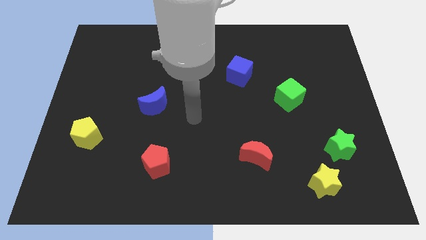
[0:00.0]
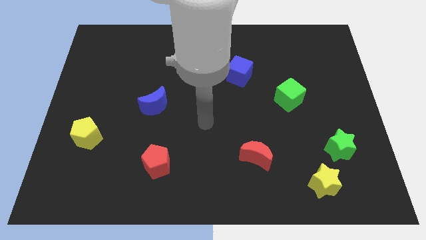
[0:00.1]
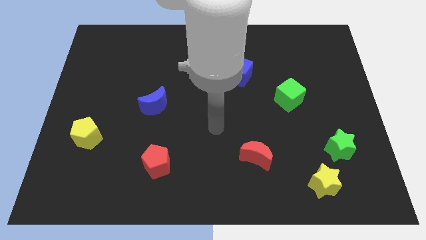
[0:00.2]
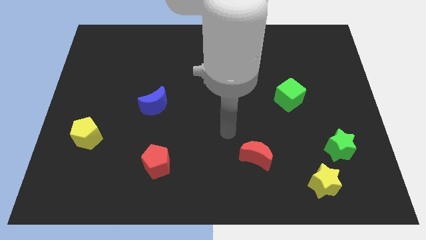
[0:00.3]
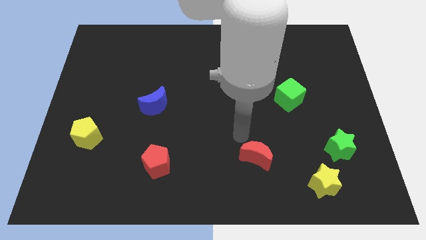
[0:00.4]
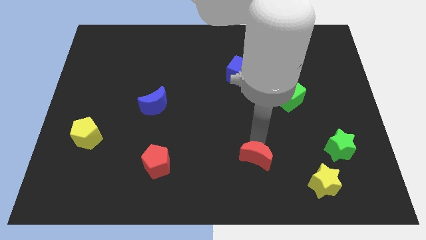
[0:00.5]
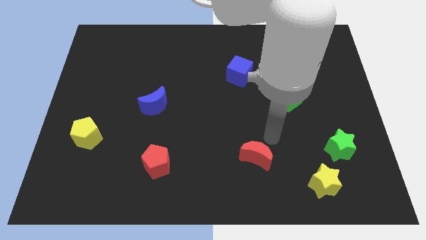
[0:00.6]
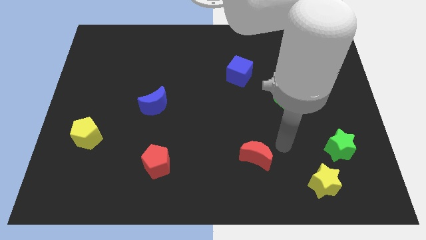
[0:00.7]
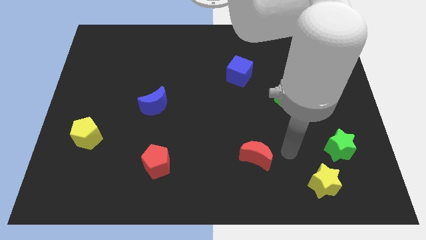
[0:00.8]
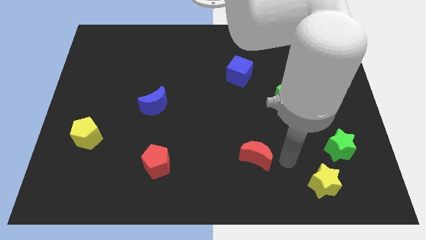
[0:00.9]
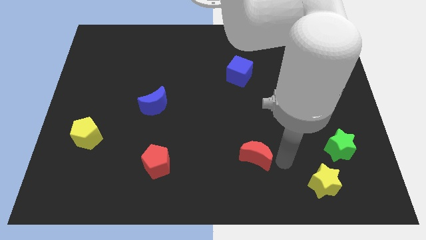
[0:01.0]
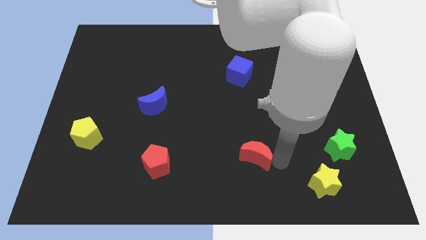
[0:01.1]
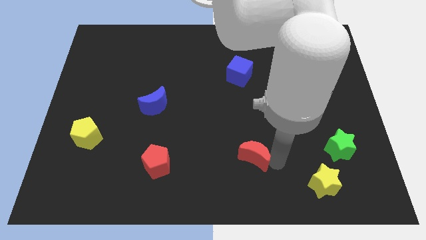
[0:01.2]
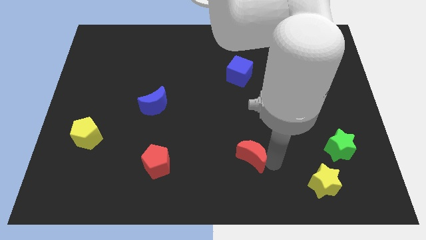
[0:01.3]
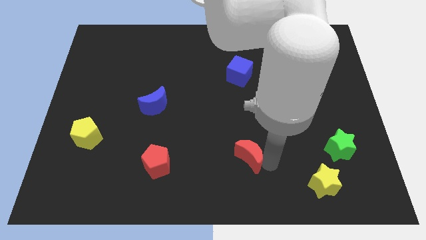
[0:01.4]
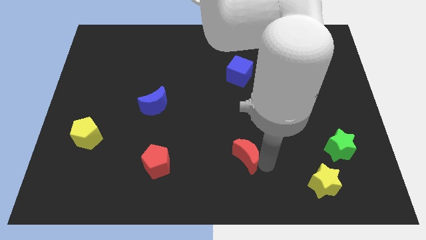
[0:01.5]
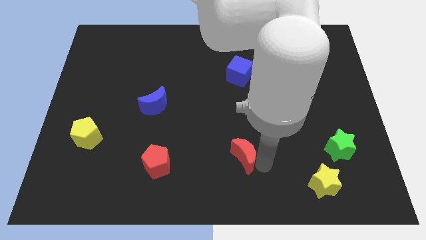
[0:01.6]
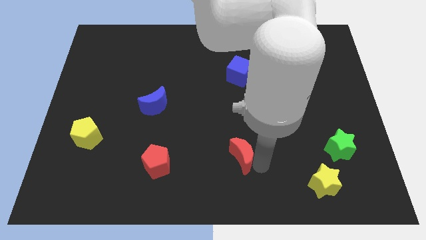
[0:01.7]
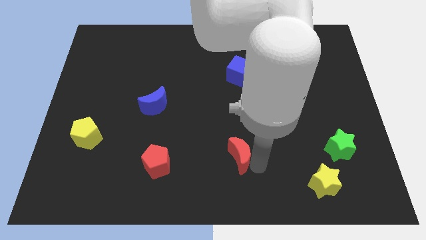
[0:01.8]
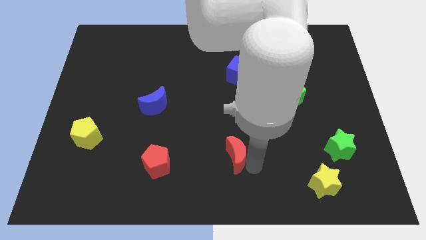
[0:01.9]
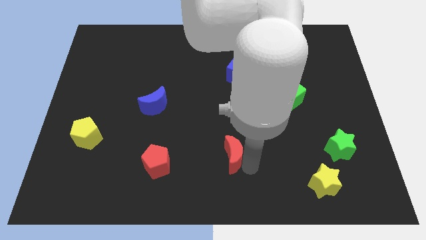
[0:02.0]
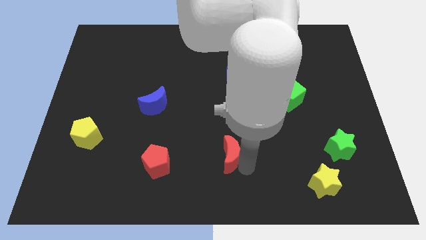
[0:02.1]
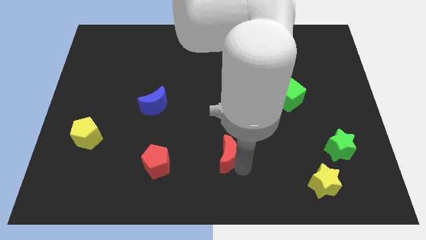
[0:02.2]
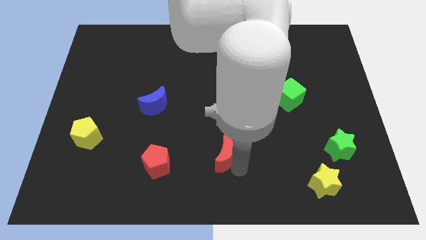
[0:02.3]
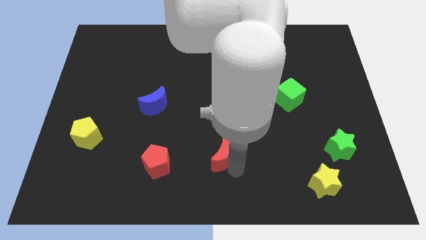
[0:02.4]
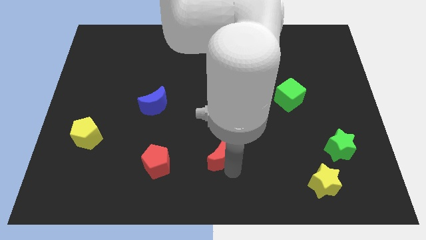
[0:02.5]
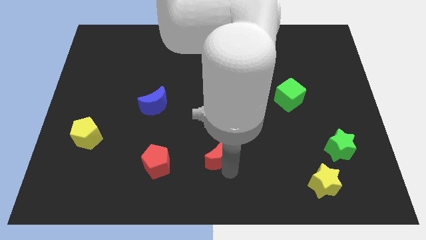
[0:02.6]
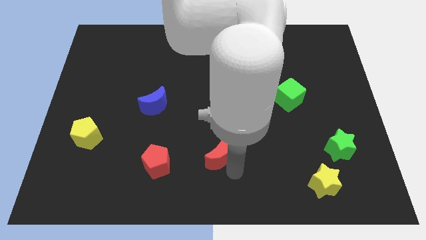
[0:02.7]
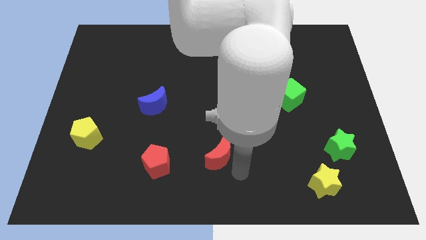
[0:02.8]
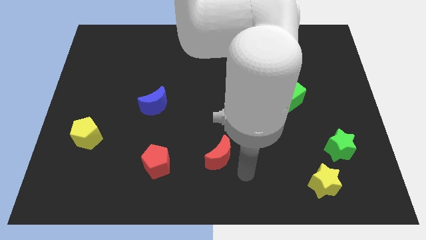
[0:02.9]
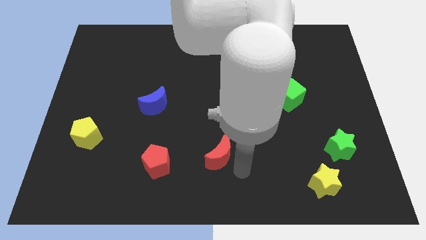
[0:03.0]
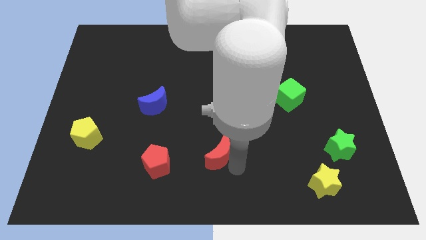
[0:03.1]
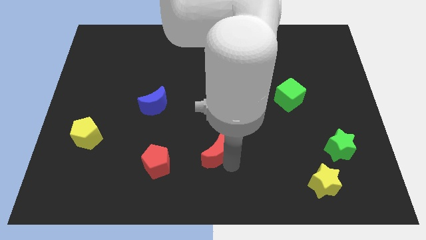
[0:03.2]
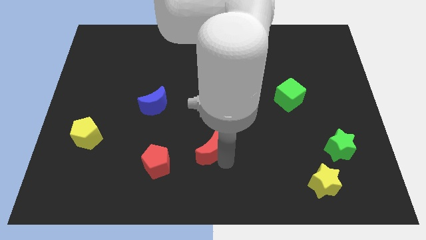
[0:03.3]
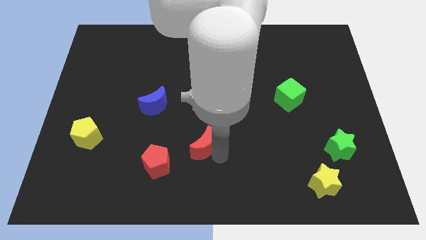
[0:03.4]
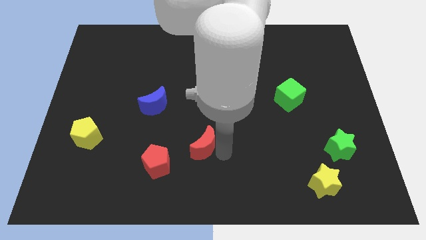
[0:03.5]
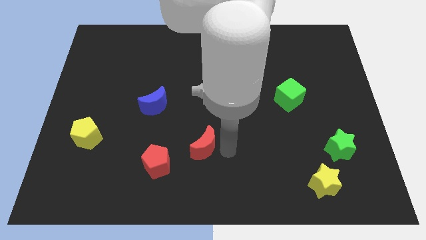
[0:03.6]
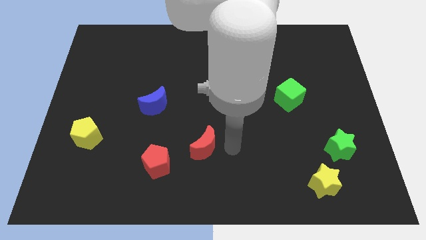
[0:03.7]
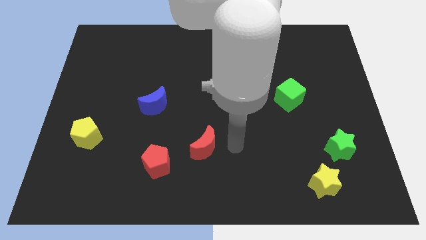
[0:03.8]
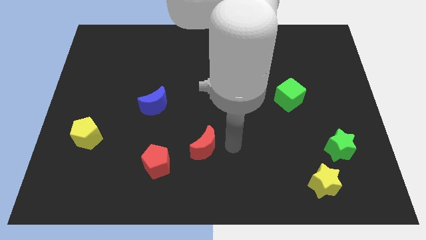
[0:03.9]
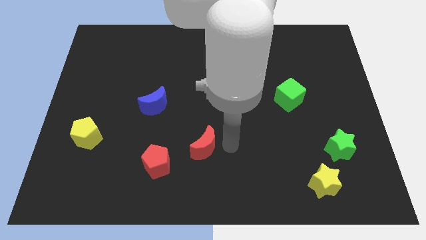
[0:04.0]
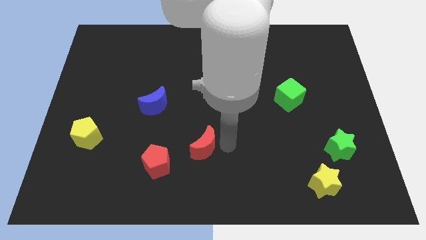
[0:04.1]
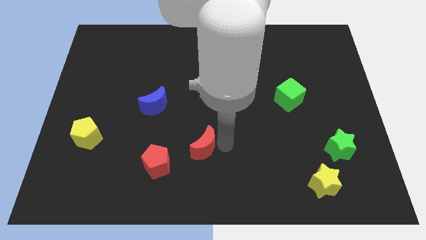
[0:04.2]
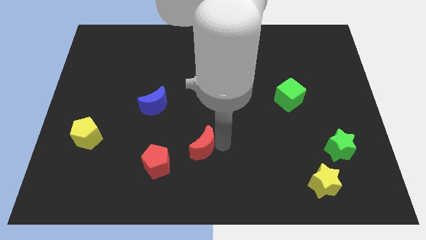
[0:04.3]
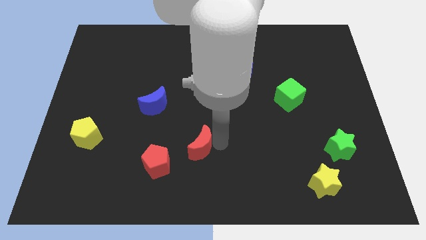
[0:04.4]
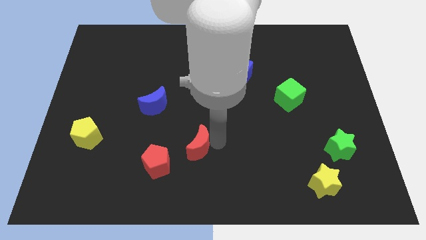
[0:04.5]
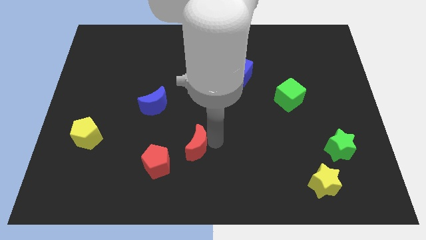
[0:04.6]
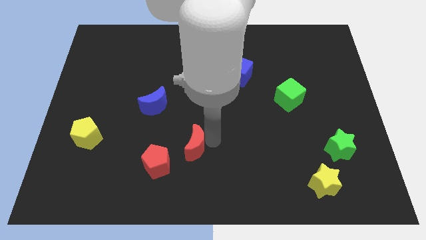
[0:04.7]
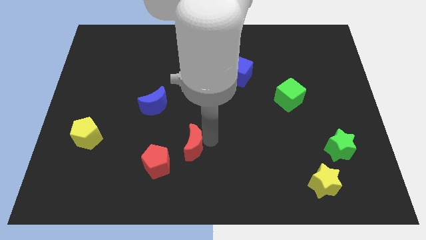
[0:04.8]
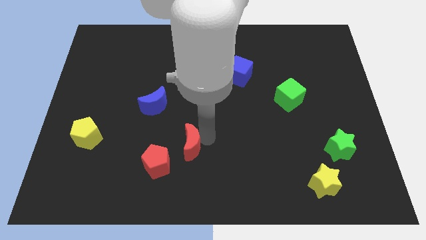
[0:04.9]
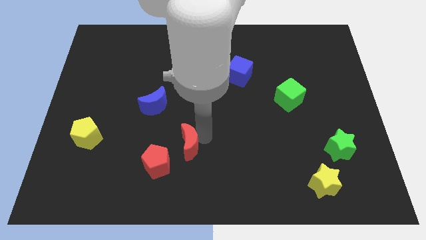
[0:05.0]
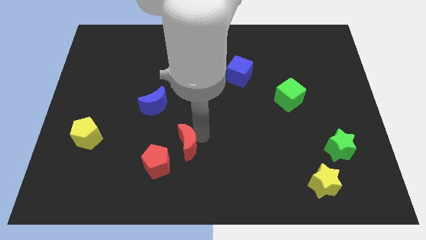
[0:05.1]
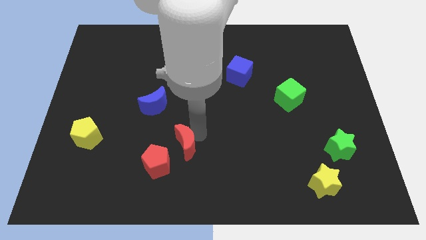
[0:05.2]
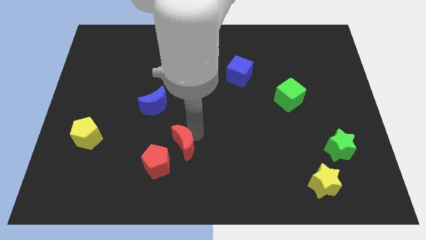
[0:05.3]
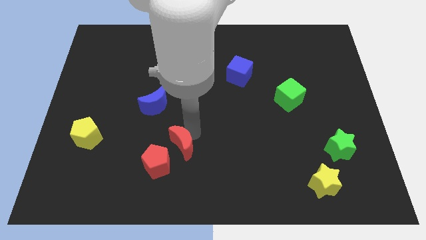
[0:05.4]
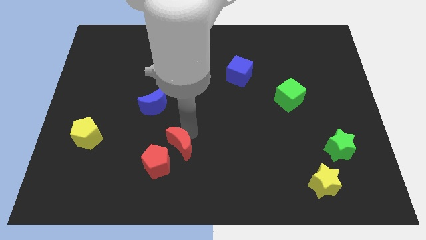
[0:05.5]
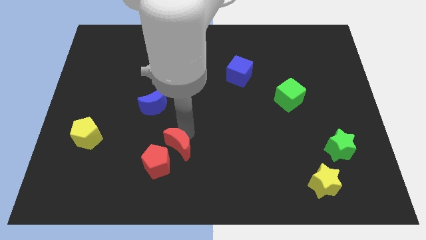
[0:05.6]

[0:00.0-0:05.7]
slide the red moon next to the red pentagon
